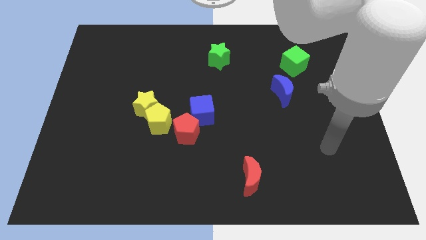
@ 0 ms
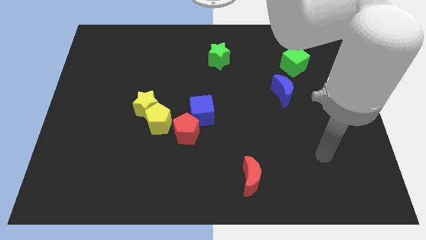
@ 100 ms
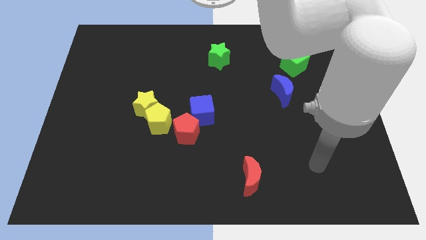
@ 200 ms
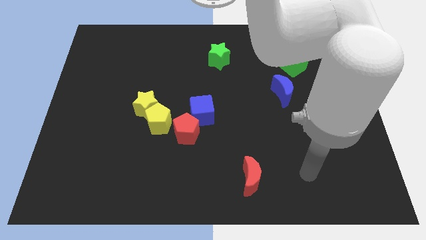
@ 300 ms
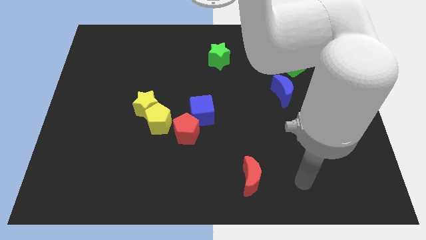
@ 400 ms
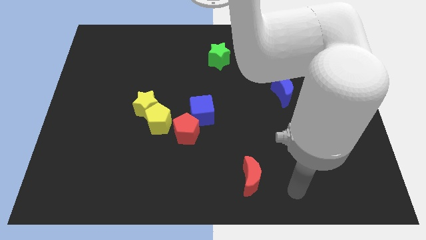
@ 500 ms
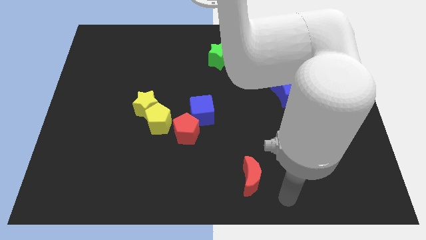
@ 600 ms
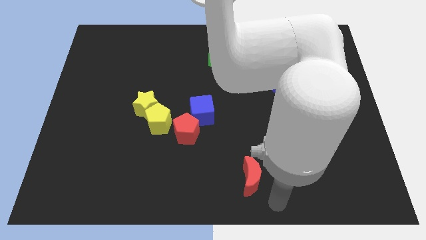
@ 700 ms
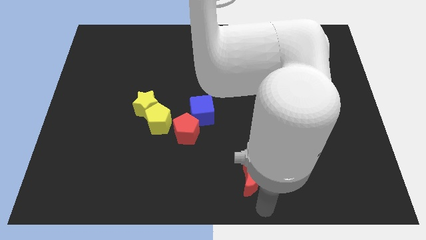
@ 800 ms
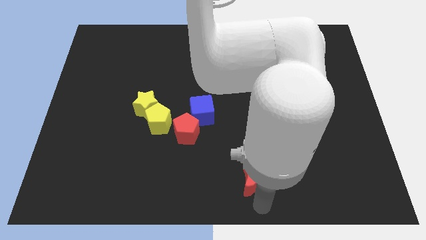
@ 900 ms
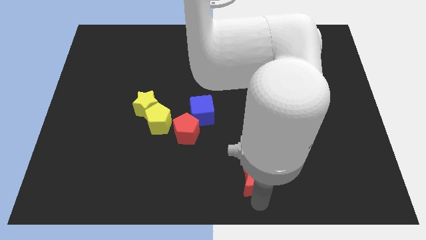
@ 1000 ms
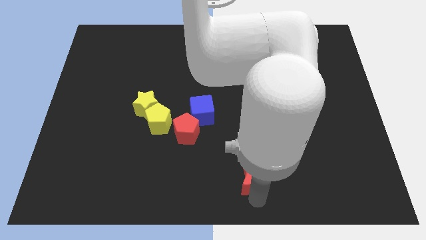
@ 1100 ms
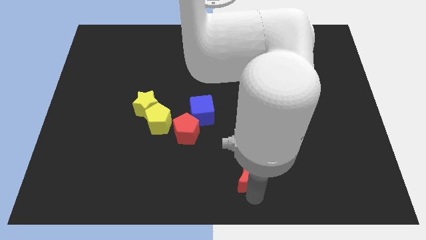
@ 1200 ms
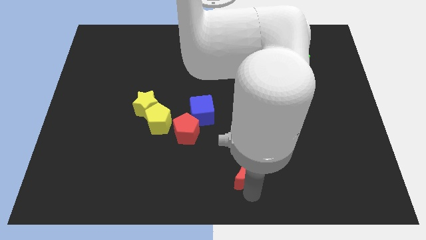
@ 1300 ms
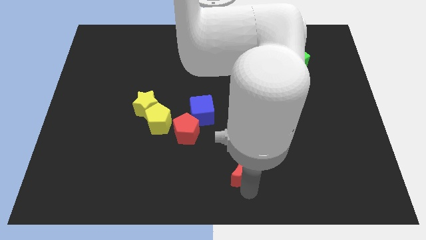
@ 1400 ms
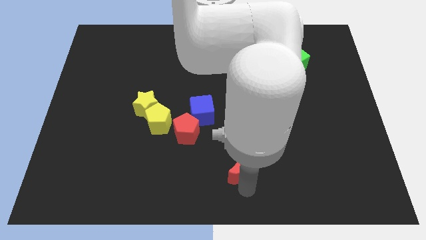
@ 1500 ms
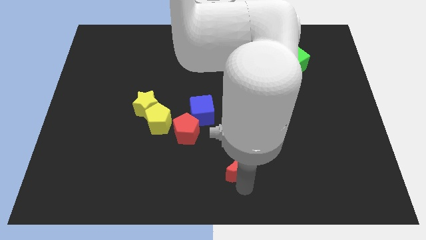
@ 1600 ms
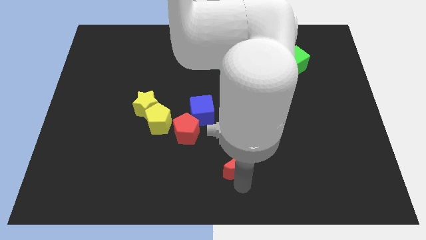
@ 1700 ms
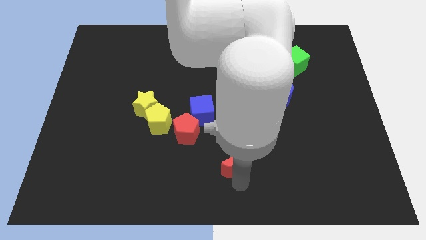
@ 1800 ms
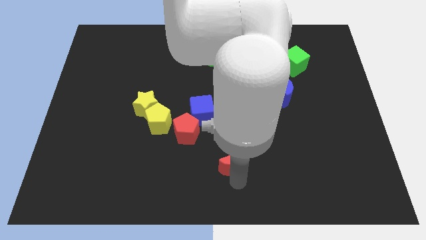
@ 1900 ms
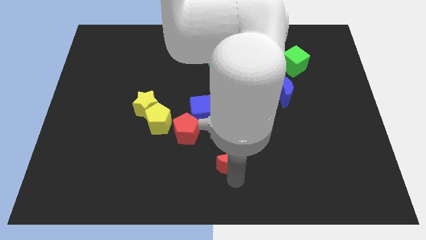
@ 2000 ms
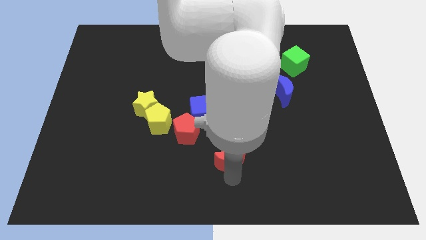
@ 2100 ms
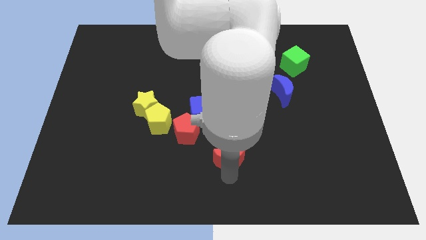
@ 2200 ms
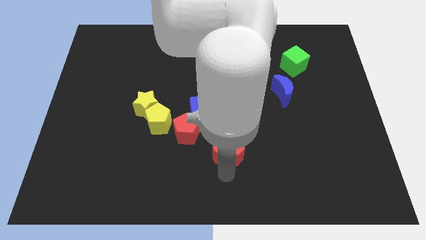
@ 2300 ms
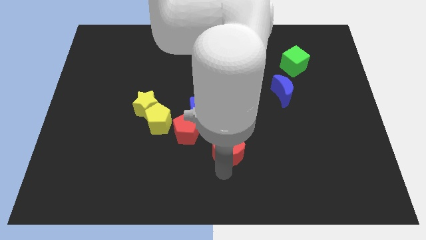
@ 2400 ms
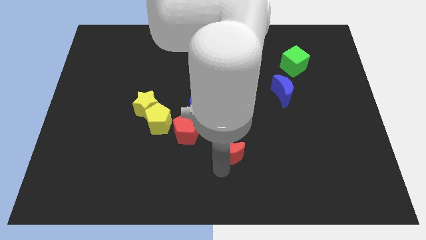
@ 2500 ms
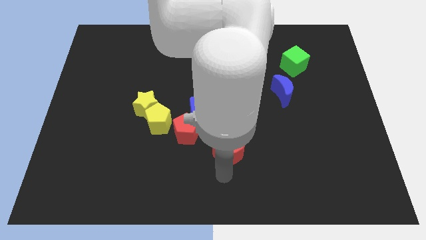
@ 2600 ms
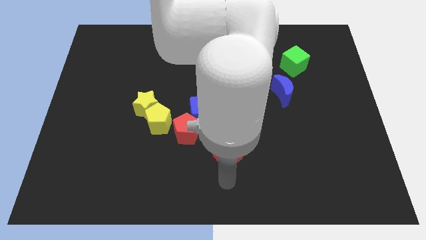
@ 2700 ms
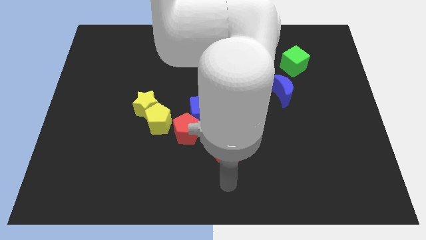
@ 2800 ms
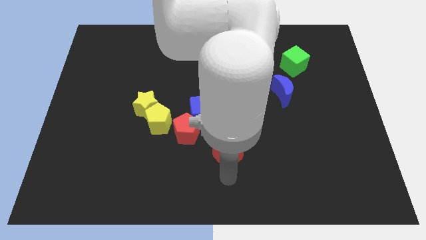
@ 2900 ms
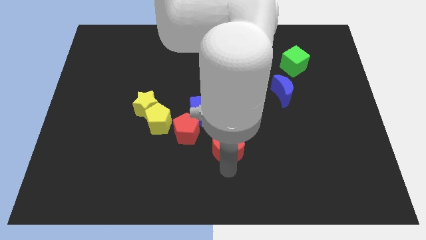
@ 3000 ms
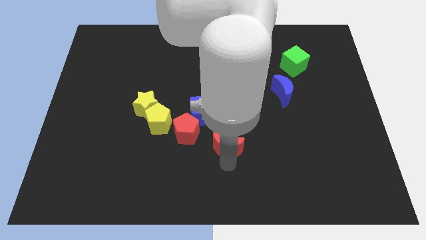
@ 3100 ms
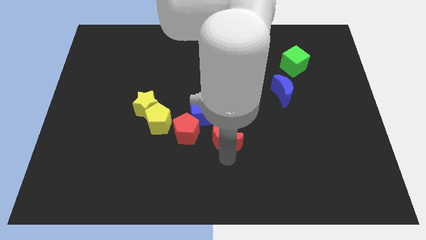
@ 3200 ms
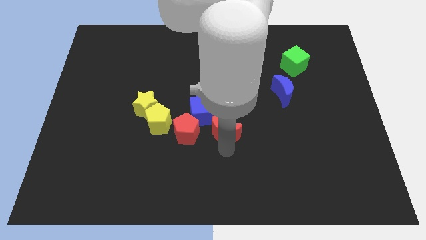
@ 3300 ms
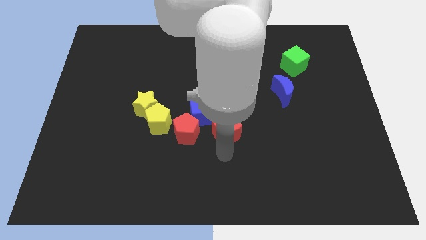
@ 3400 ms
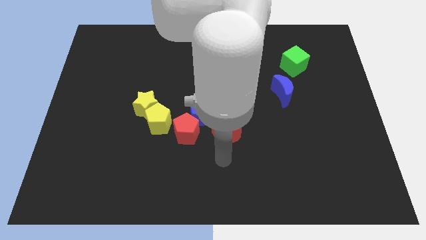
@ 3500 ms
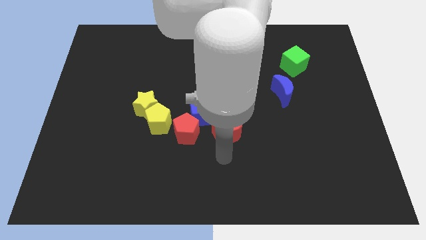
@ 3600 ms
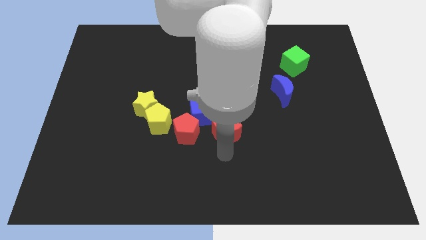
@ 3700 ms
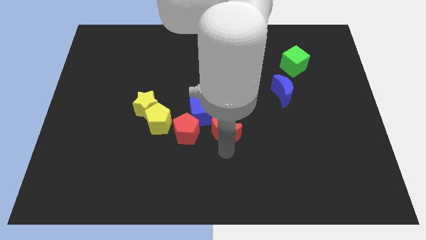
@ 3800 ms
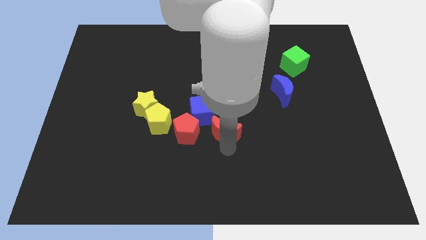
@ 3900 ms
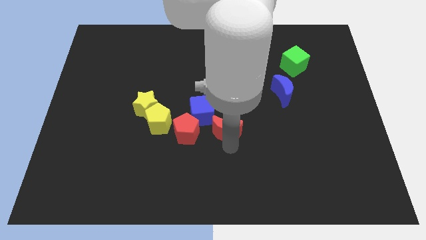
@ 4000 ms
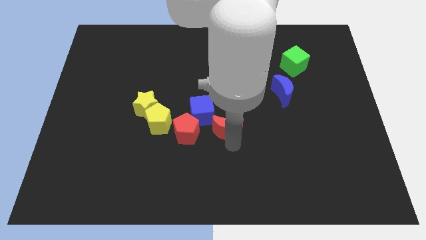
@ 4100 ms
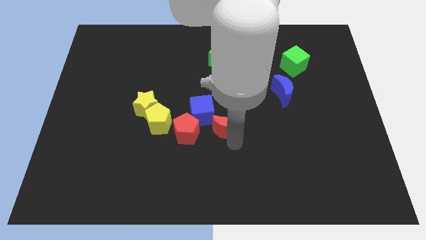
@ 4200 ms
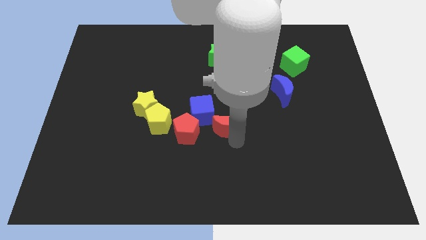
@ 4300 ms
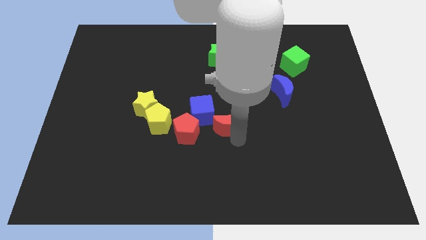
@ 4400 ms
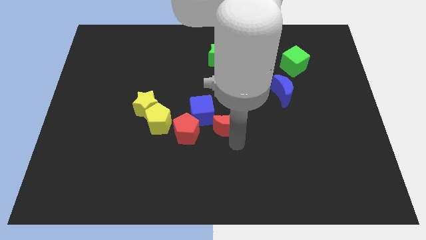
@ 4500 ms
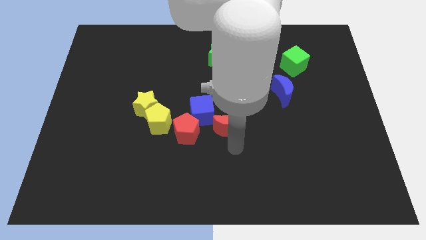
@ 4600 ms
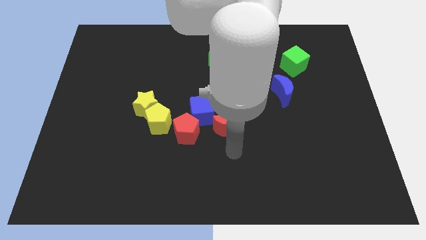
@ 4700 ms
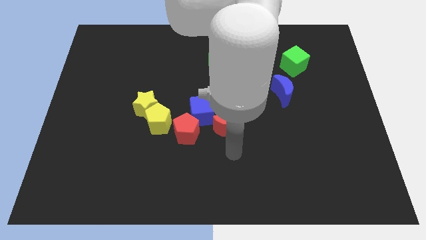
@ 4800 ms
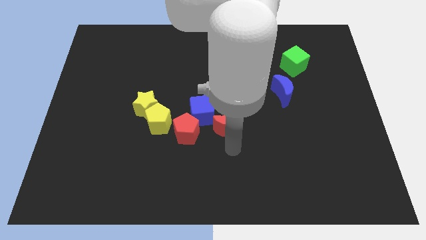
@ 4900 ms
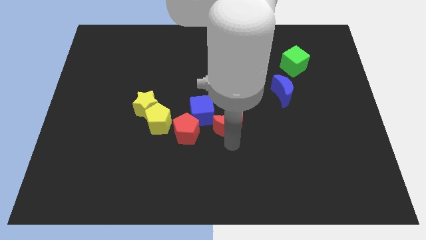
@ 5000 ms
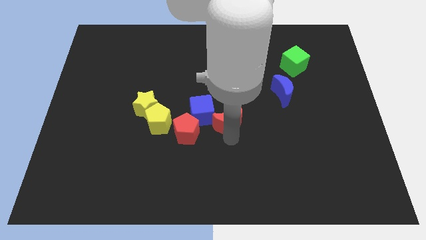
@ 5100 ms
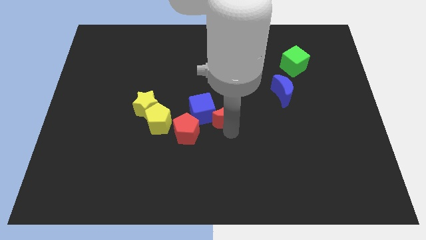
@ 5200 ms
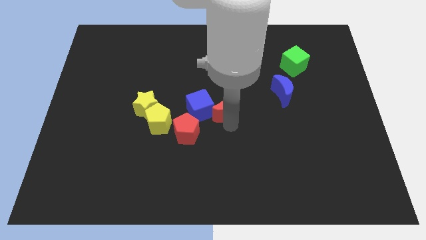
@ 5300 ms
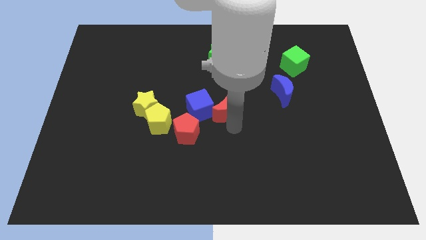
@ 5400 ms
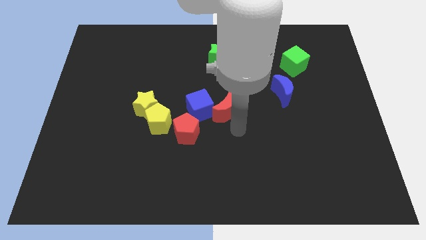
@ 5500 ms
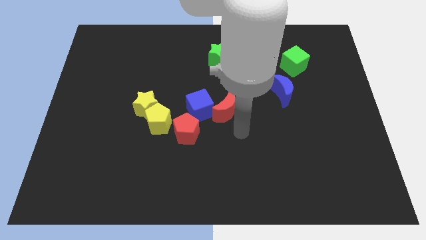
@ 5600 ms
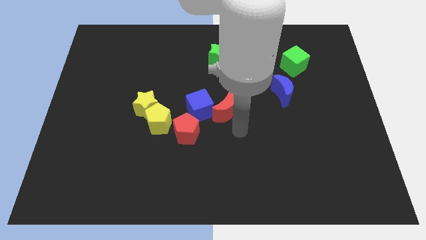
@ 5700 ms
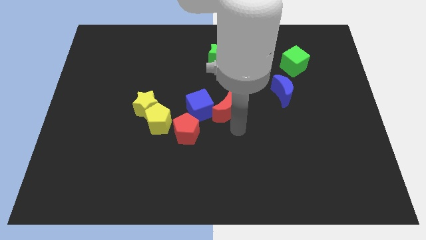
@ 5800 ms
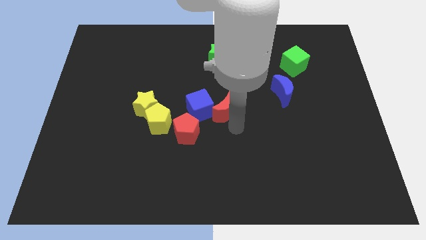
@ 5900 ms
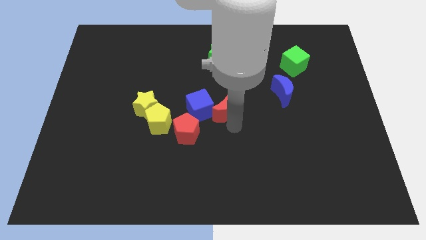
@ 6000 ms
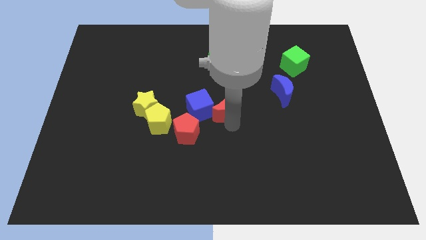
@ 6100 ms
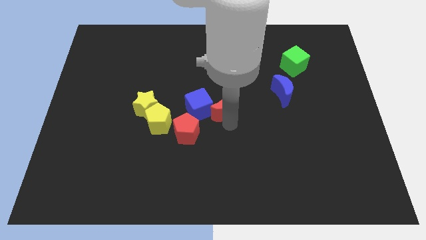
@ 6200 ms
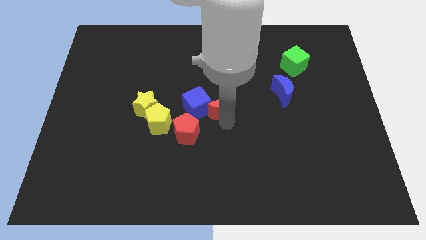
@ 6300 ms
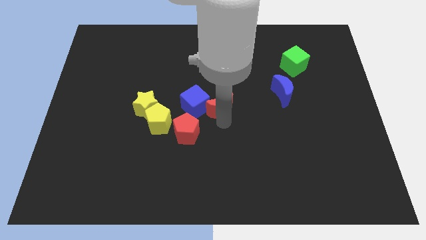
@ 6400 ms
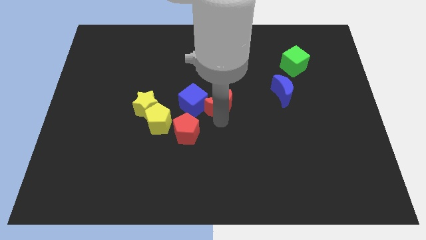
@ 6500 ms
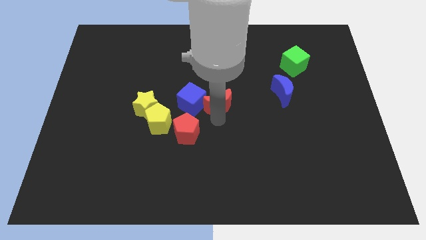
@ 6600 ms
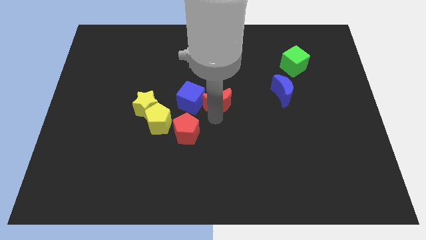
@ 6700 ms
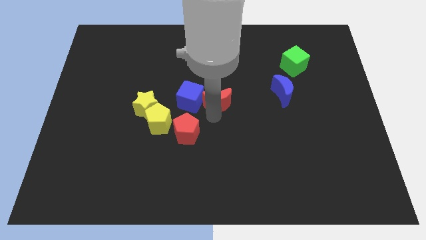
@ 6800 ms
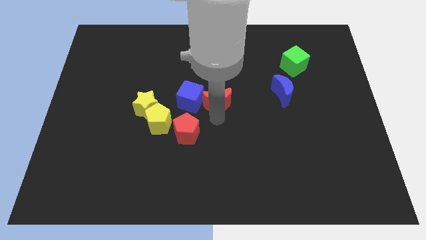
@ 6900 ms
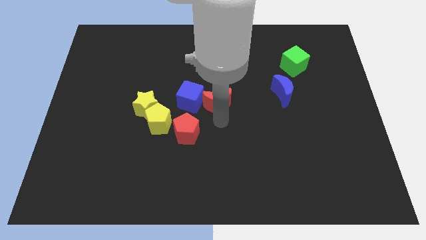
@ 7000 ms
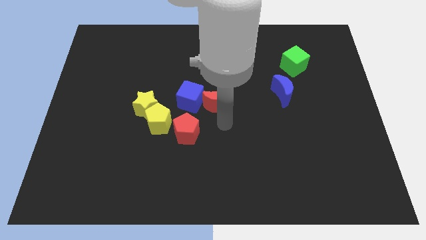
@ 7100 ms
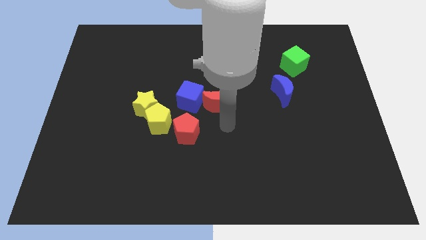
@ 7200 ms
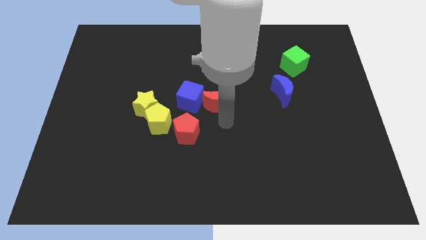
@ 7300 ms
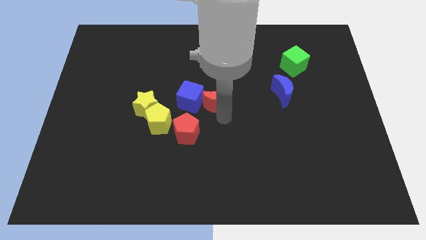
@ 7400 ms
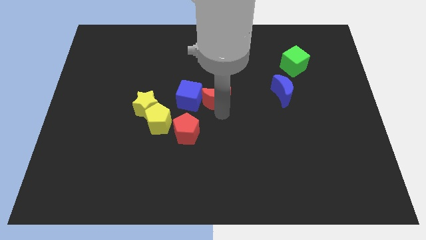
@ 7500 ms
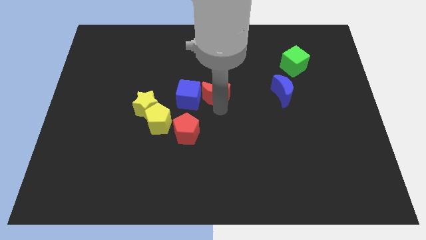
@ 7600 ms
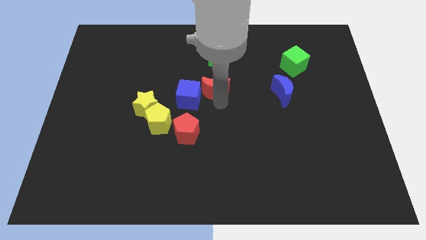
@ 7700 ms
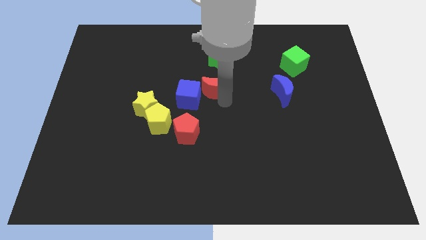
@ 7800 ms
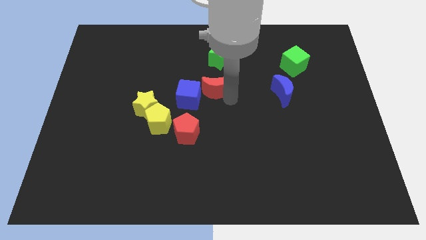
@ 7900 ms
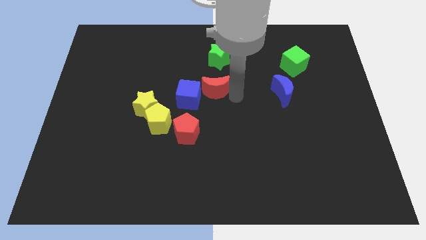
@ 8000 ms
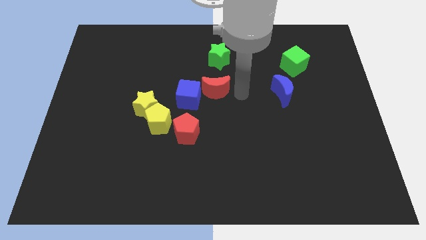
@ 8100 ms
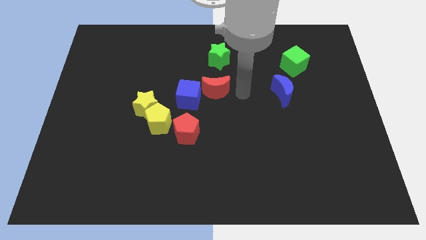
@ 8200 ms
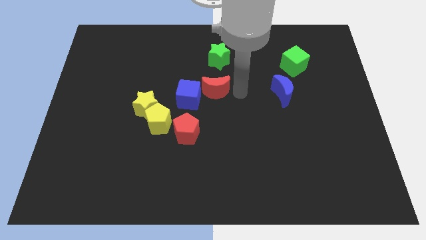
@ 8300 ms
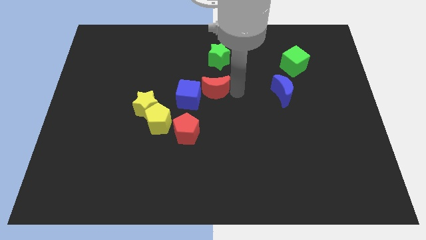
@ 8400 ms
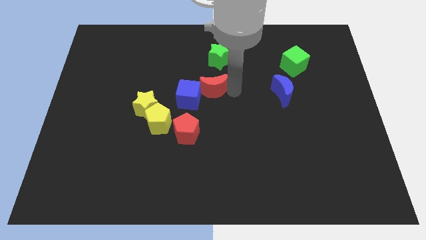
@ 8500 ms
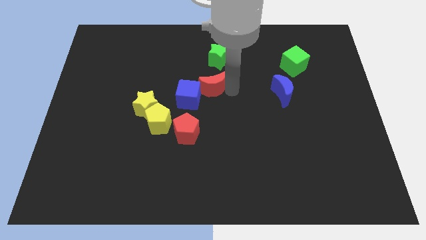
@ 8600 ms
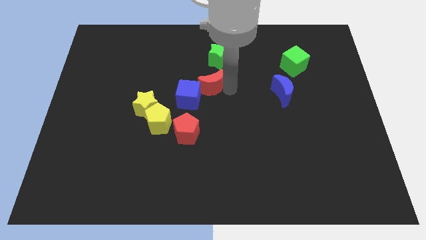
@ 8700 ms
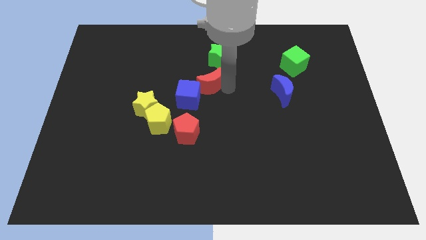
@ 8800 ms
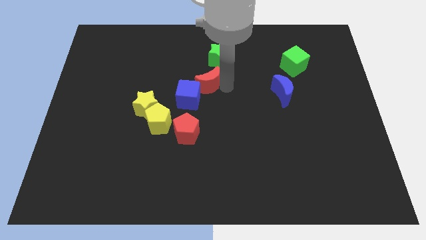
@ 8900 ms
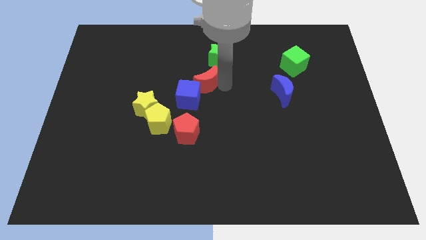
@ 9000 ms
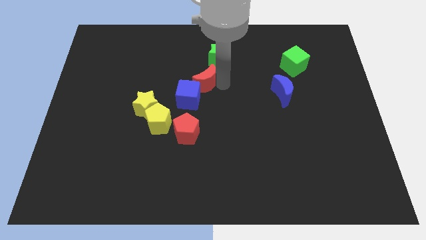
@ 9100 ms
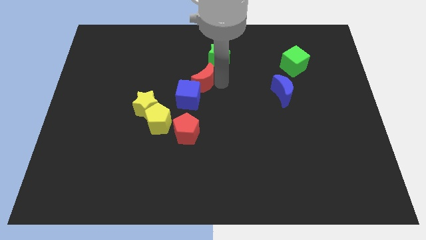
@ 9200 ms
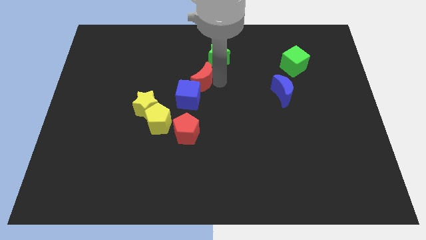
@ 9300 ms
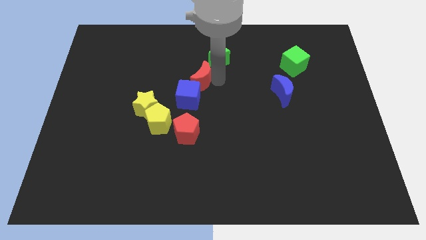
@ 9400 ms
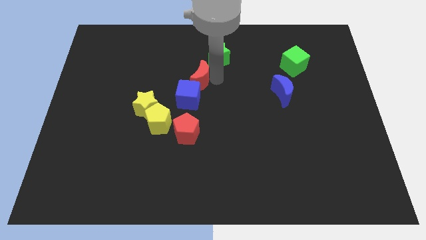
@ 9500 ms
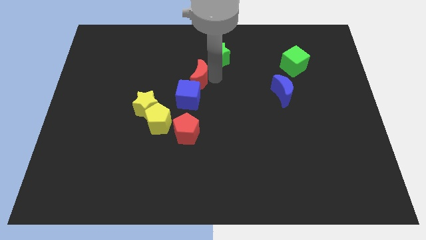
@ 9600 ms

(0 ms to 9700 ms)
push the red moon upwards and then to the left
